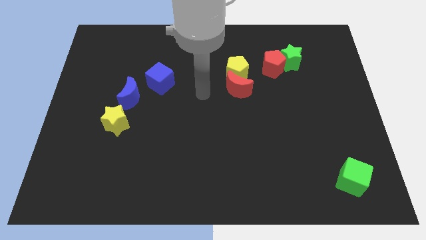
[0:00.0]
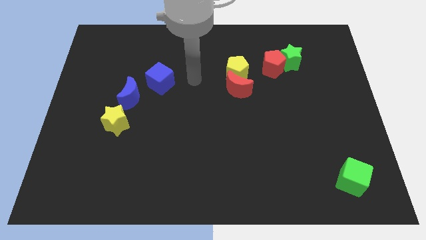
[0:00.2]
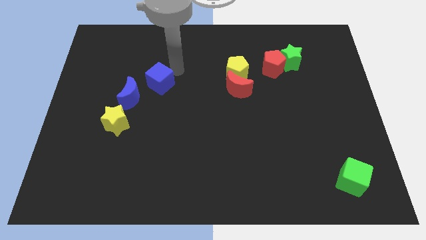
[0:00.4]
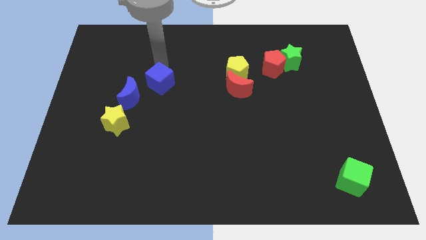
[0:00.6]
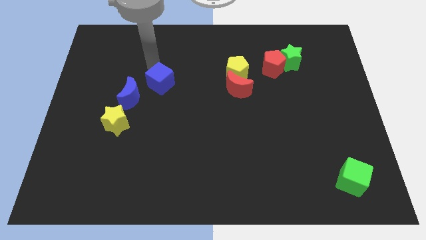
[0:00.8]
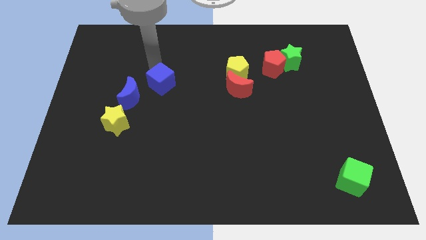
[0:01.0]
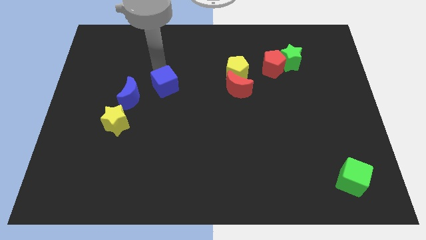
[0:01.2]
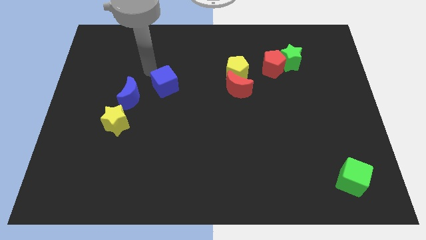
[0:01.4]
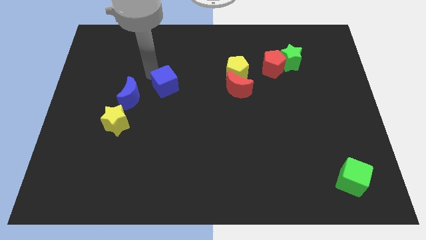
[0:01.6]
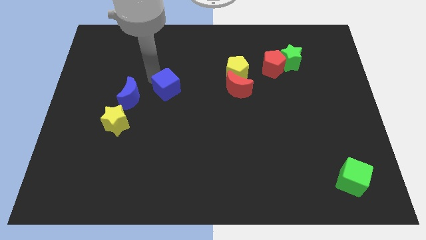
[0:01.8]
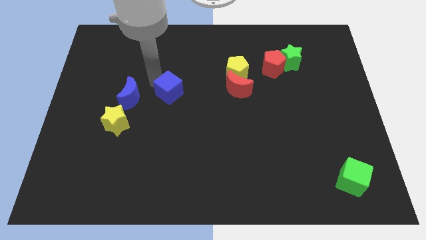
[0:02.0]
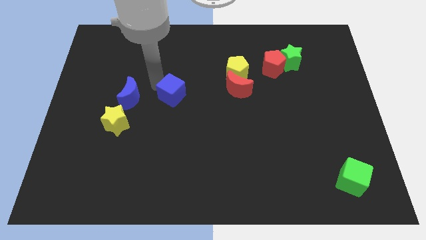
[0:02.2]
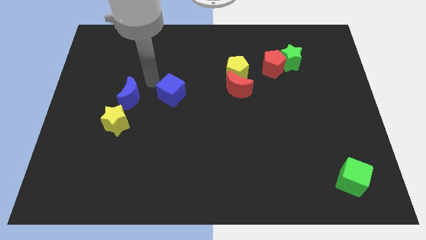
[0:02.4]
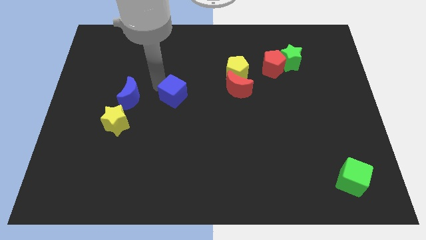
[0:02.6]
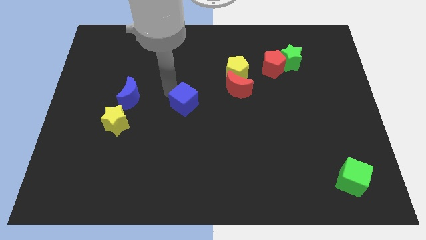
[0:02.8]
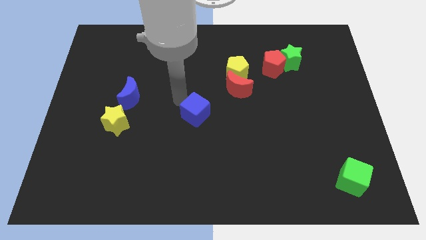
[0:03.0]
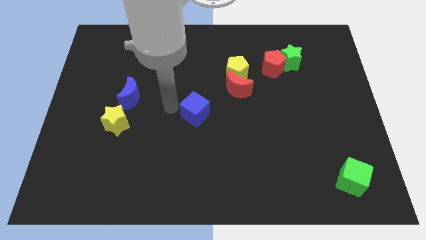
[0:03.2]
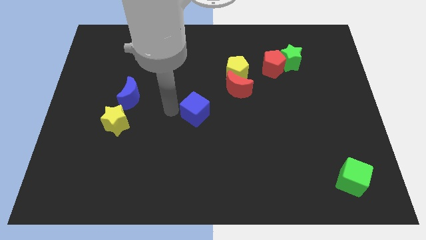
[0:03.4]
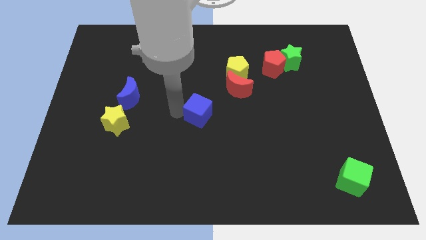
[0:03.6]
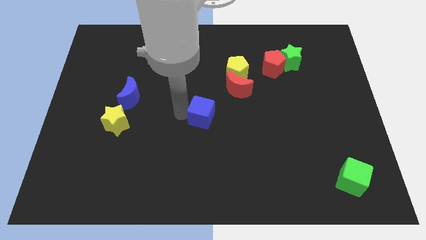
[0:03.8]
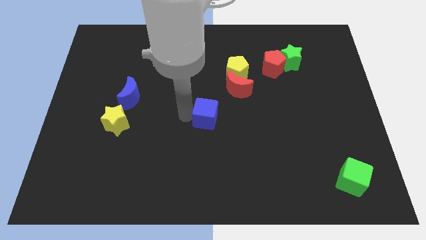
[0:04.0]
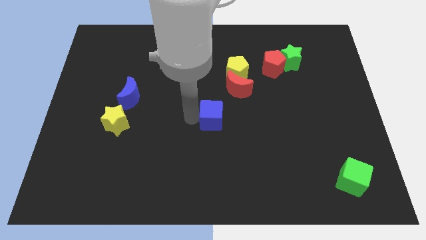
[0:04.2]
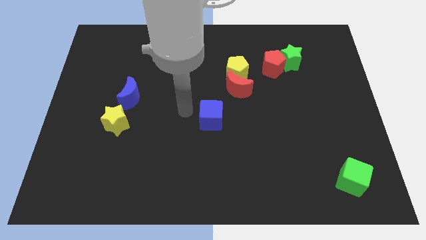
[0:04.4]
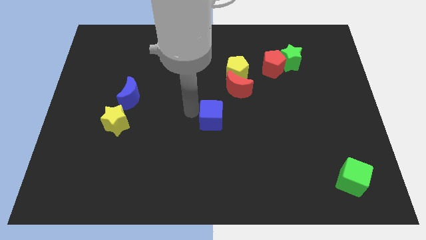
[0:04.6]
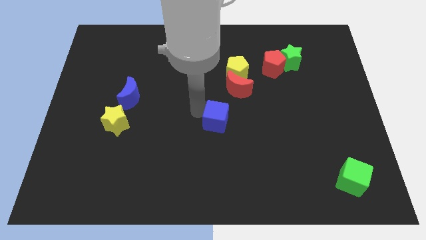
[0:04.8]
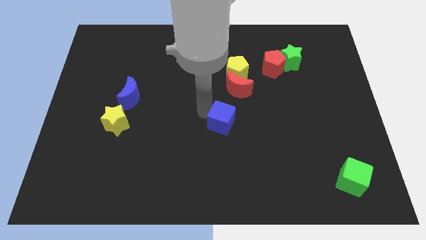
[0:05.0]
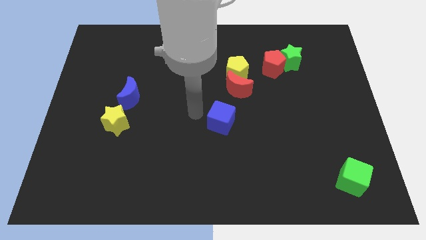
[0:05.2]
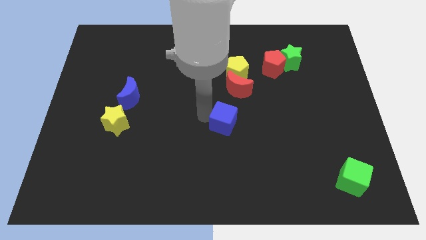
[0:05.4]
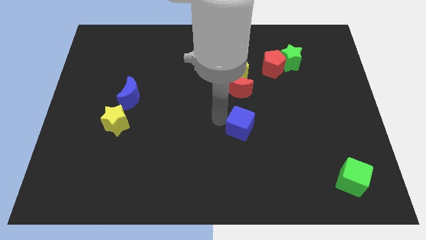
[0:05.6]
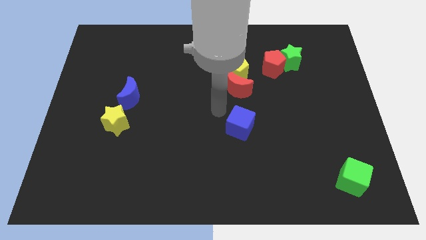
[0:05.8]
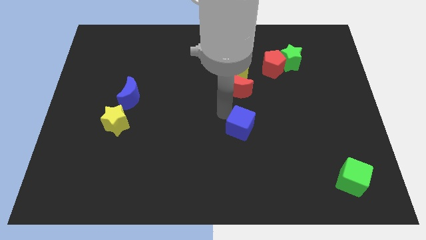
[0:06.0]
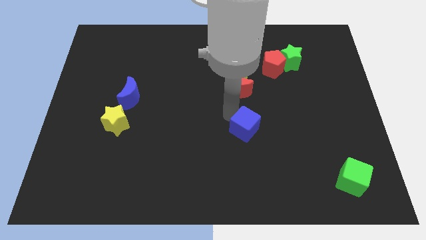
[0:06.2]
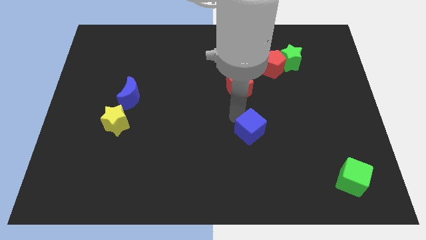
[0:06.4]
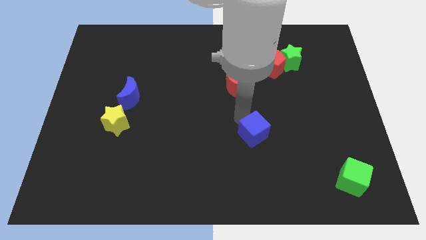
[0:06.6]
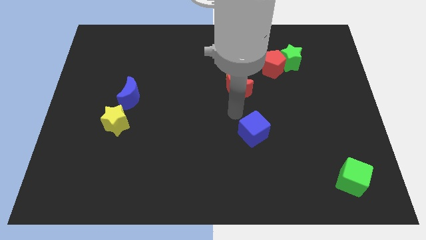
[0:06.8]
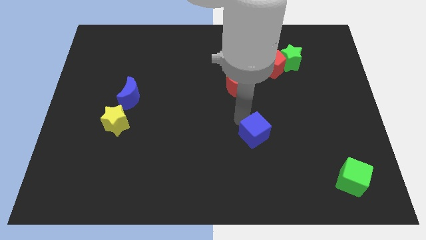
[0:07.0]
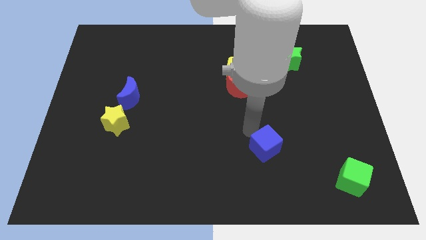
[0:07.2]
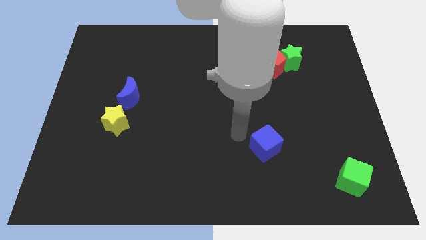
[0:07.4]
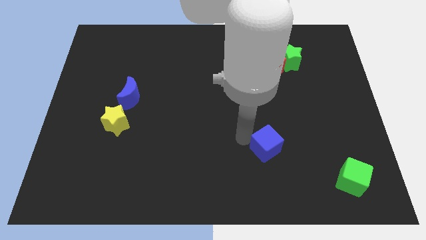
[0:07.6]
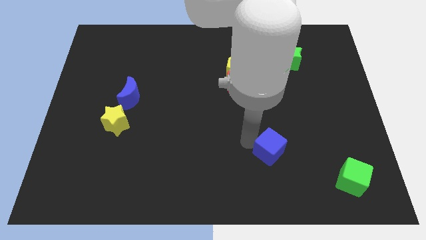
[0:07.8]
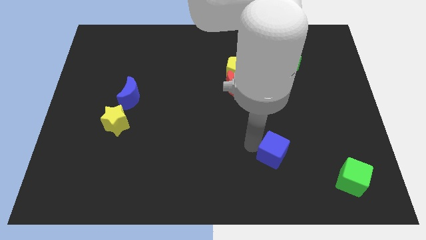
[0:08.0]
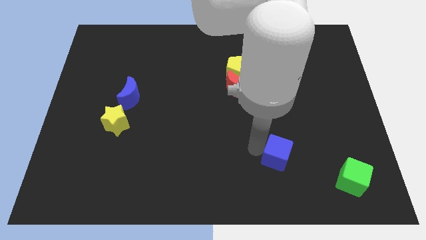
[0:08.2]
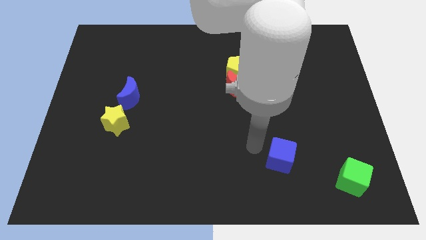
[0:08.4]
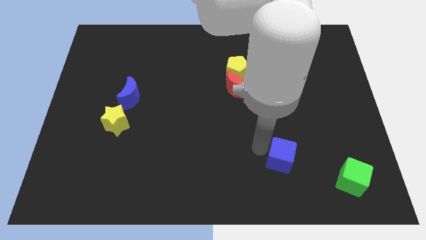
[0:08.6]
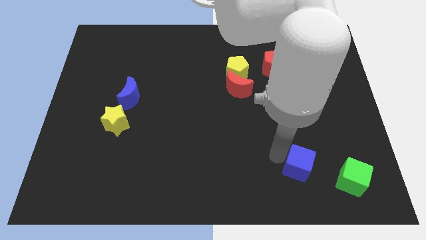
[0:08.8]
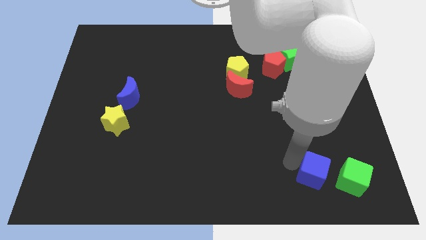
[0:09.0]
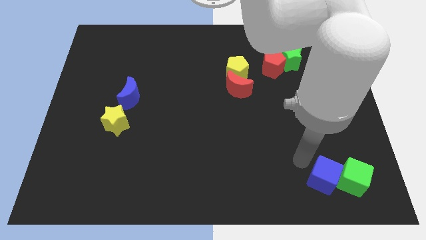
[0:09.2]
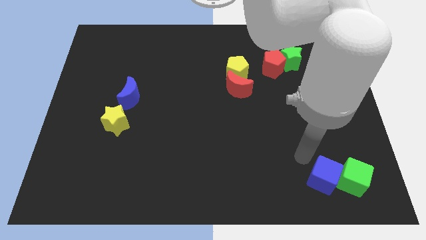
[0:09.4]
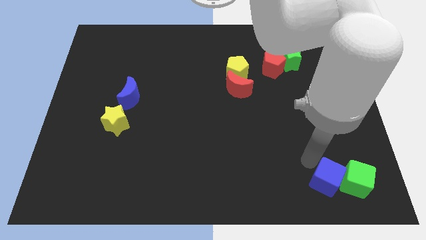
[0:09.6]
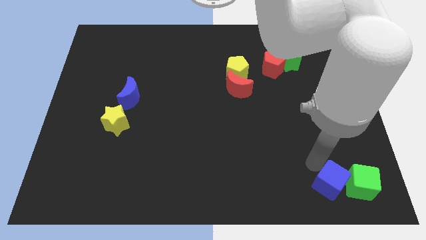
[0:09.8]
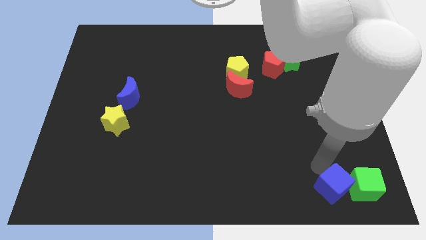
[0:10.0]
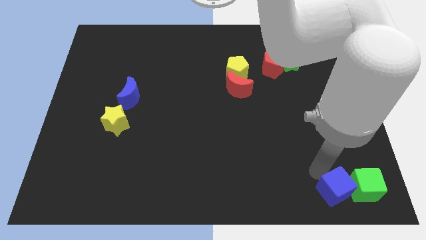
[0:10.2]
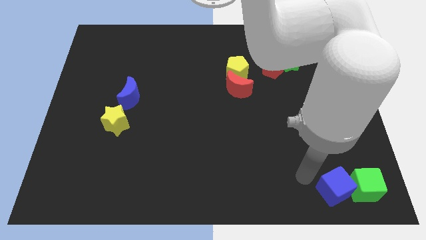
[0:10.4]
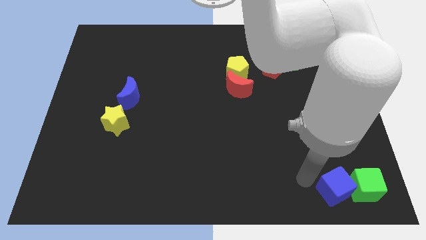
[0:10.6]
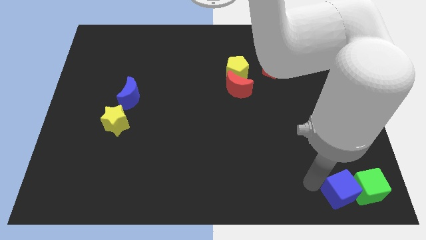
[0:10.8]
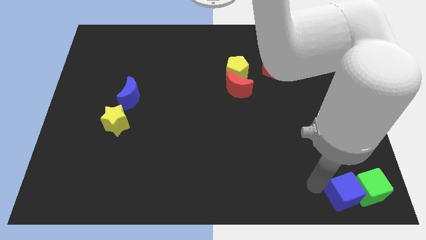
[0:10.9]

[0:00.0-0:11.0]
put the blue cube to the bottom right

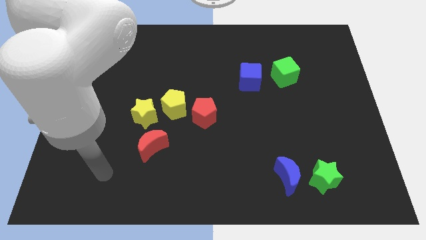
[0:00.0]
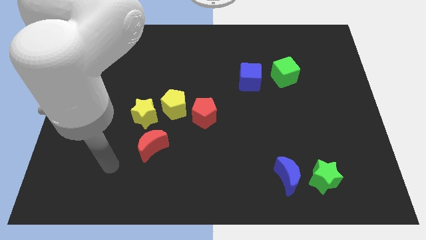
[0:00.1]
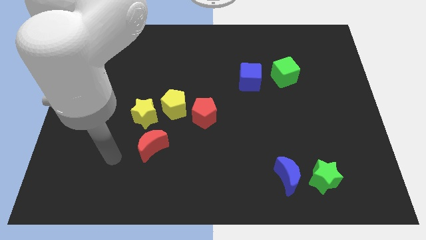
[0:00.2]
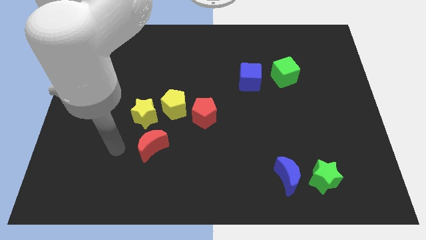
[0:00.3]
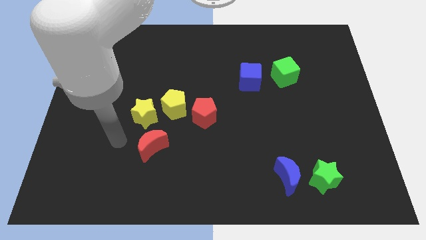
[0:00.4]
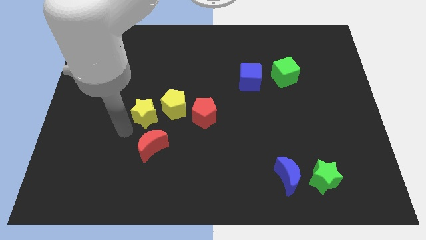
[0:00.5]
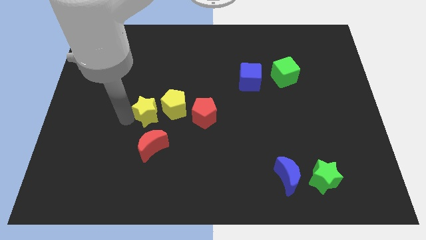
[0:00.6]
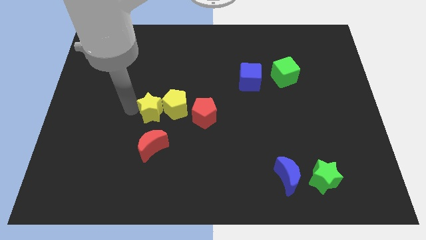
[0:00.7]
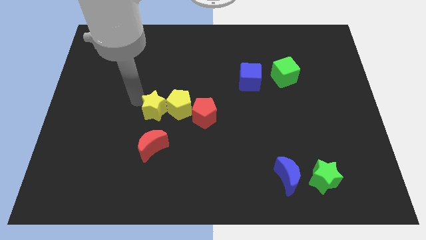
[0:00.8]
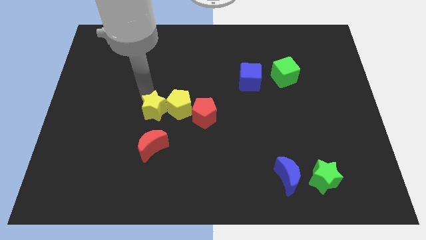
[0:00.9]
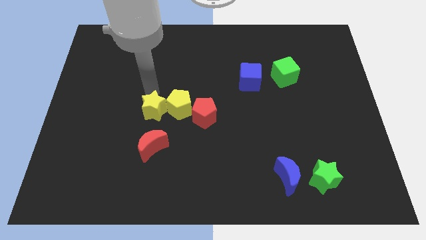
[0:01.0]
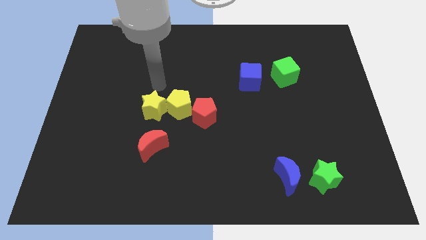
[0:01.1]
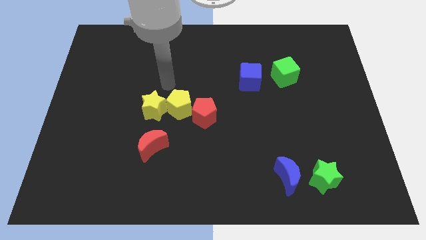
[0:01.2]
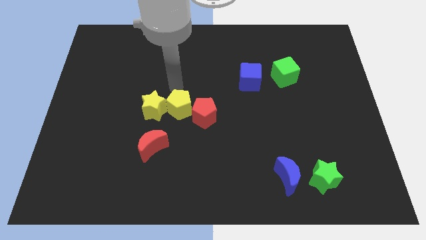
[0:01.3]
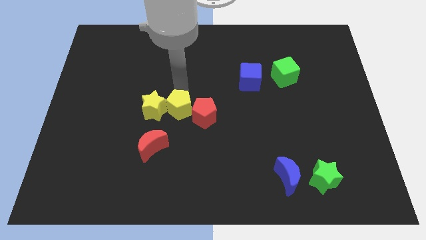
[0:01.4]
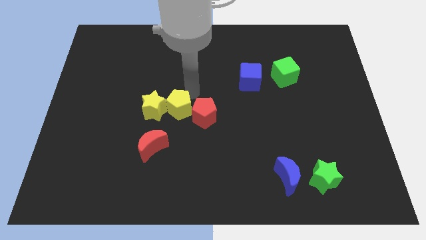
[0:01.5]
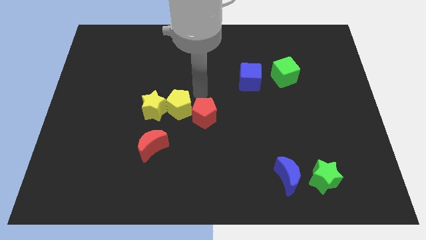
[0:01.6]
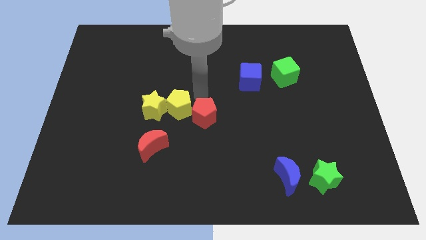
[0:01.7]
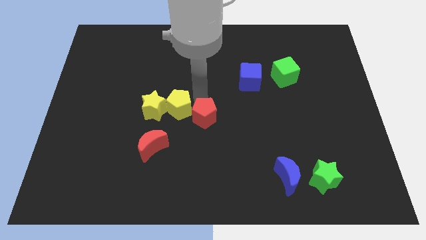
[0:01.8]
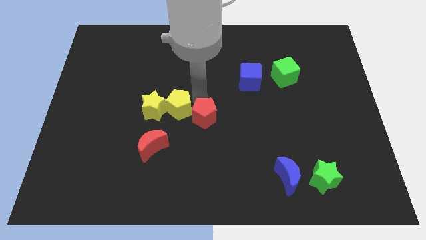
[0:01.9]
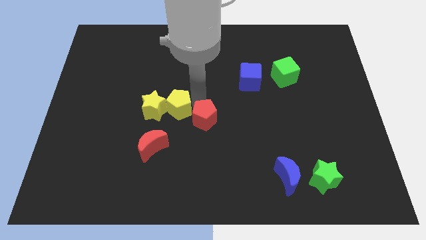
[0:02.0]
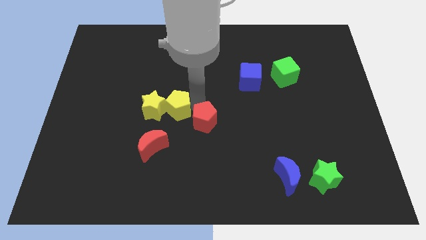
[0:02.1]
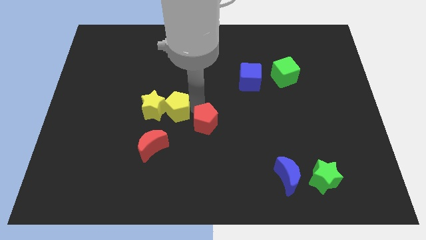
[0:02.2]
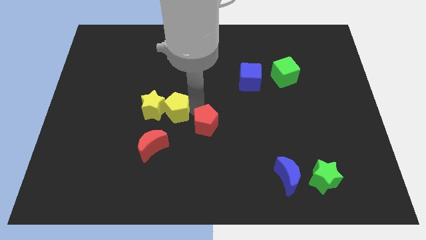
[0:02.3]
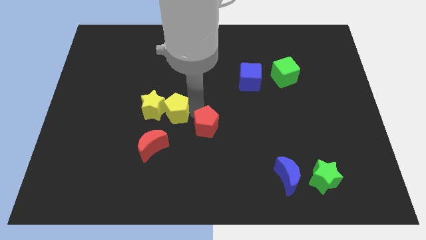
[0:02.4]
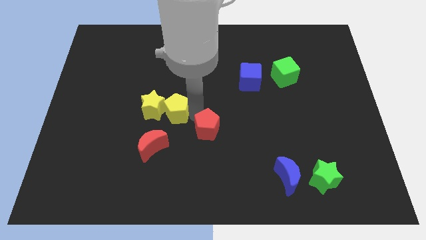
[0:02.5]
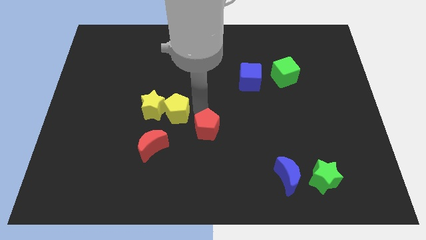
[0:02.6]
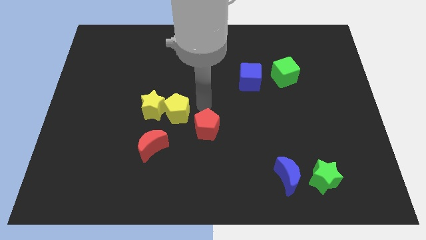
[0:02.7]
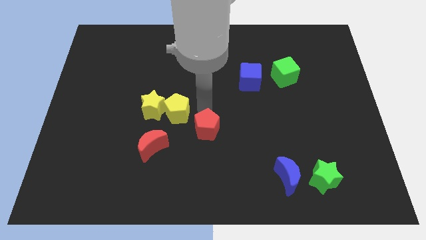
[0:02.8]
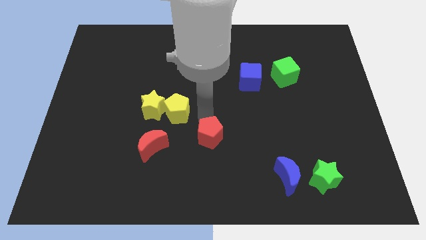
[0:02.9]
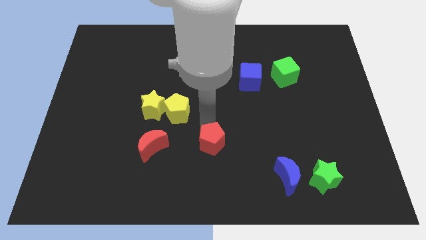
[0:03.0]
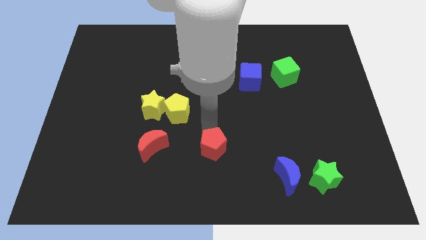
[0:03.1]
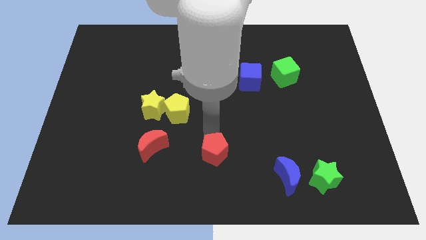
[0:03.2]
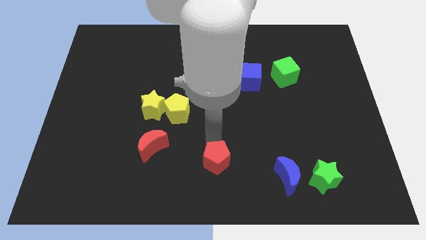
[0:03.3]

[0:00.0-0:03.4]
move the red pentagon to the bottom
